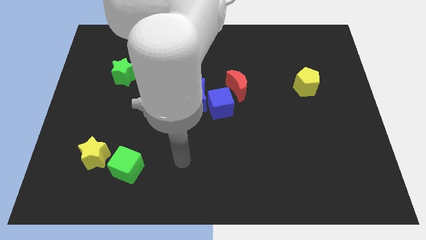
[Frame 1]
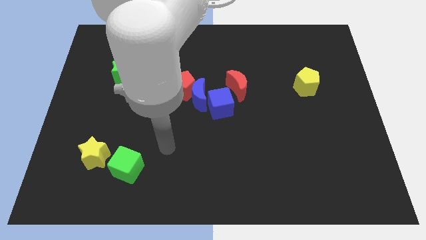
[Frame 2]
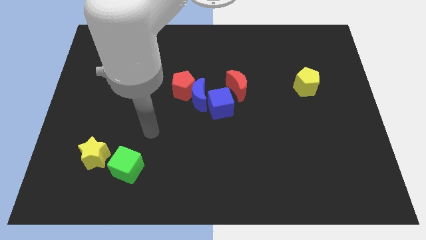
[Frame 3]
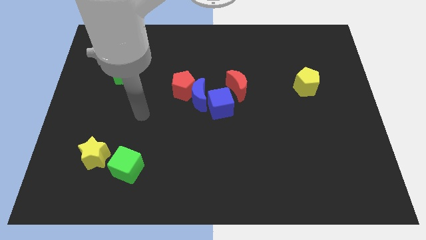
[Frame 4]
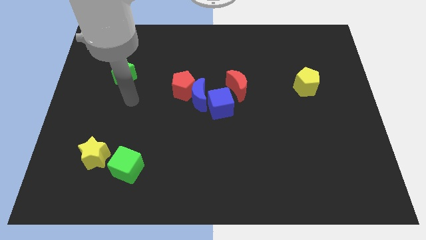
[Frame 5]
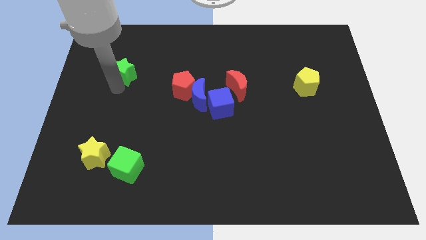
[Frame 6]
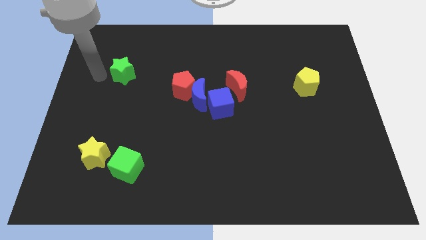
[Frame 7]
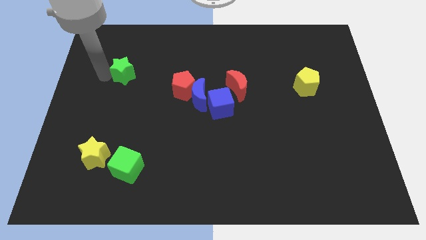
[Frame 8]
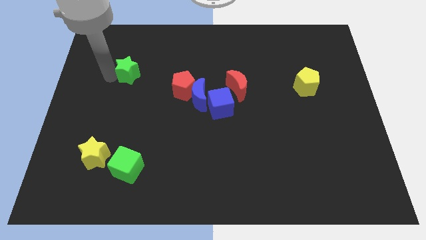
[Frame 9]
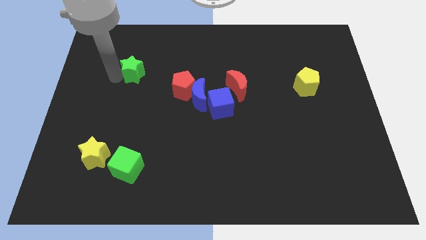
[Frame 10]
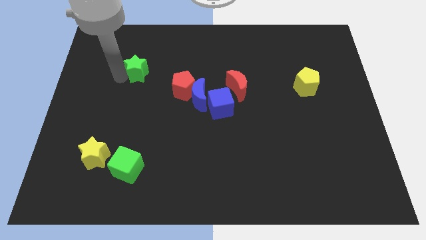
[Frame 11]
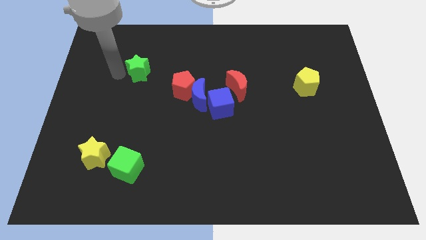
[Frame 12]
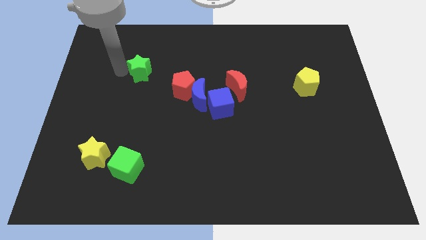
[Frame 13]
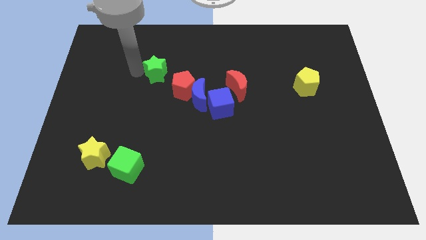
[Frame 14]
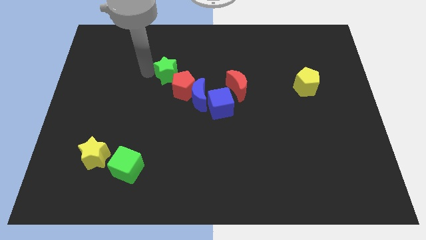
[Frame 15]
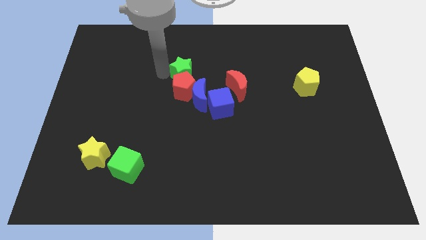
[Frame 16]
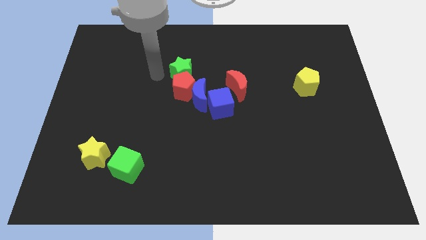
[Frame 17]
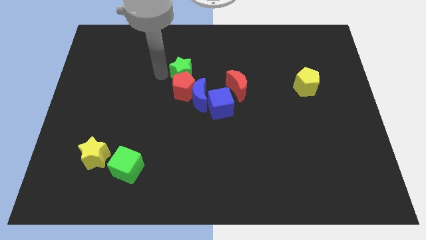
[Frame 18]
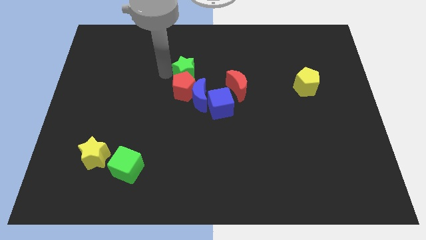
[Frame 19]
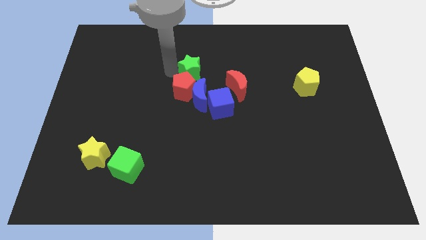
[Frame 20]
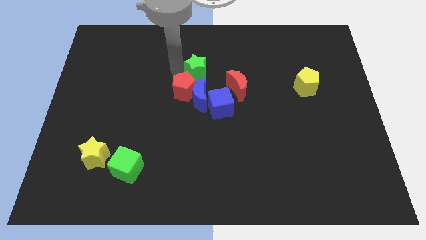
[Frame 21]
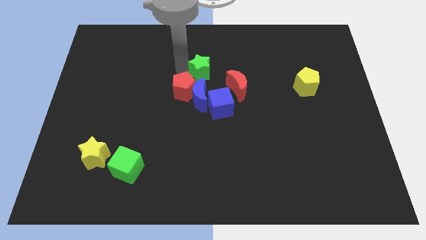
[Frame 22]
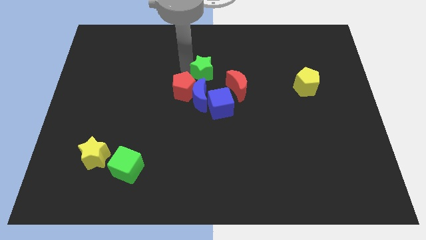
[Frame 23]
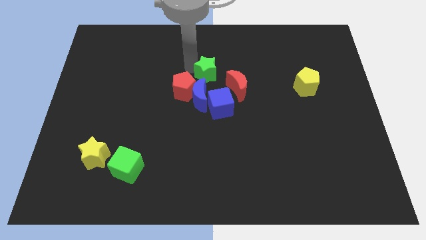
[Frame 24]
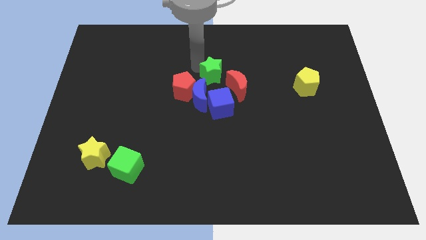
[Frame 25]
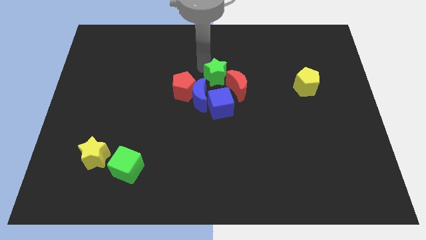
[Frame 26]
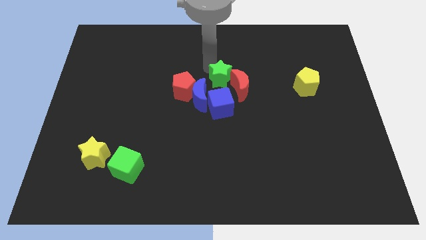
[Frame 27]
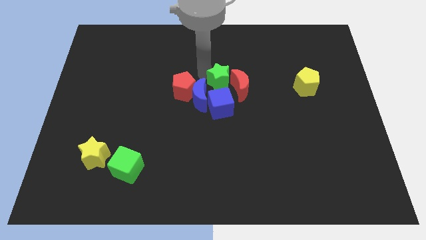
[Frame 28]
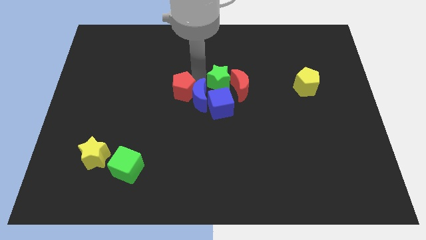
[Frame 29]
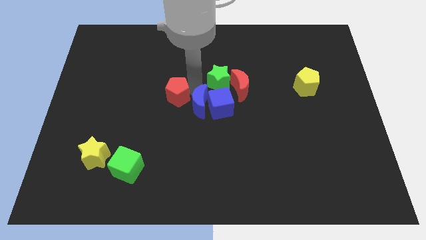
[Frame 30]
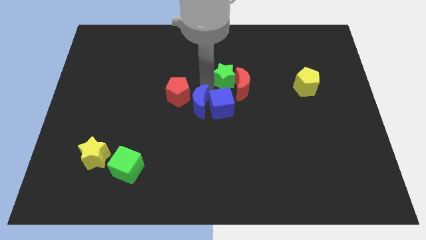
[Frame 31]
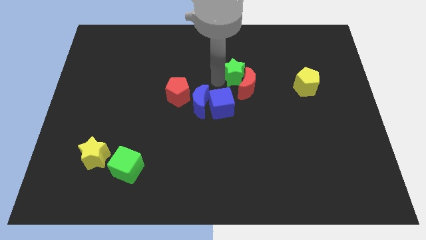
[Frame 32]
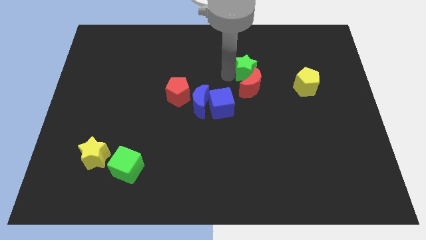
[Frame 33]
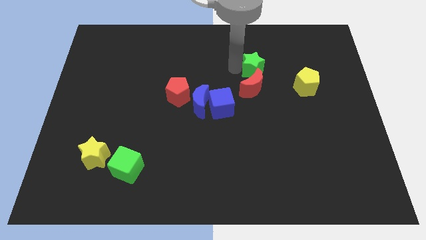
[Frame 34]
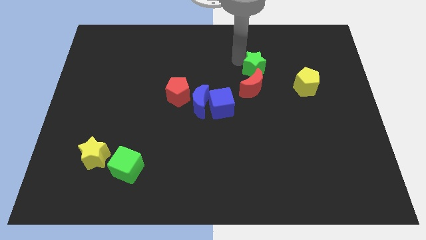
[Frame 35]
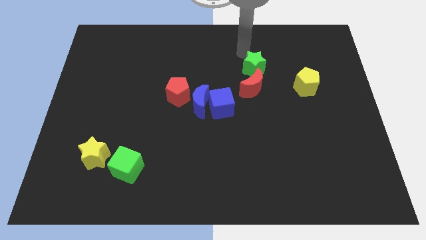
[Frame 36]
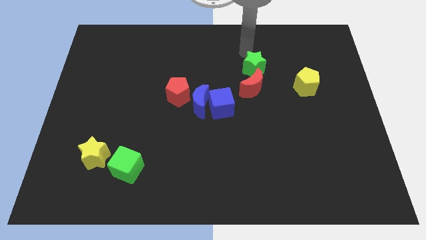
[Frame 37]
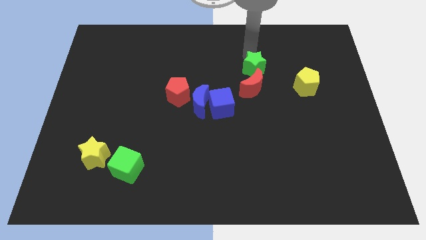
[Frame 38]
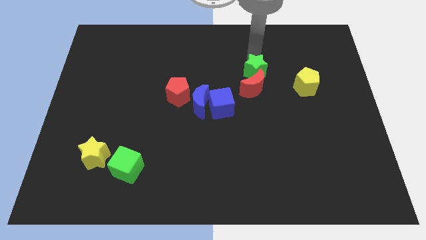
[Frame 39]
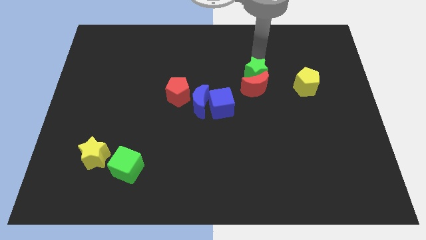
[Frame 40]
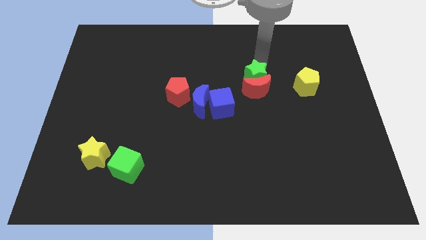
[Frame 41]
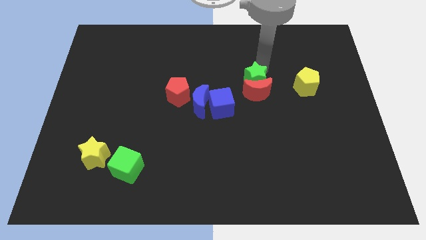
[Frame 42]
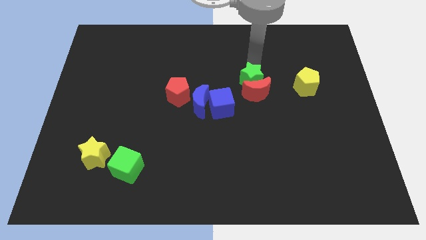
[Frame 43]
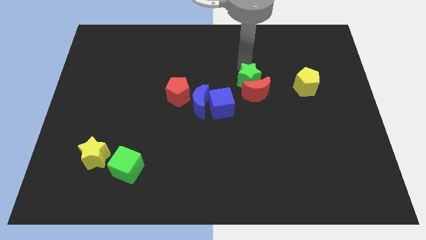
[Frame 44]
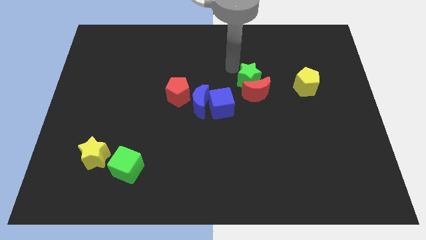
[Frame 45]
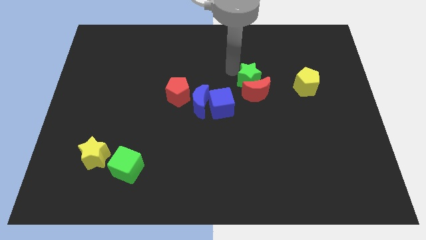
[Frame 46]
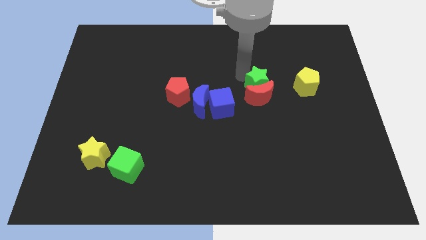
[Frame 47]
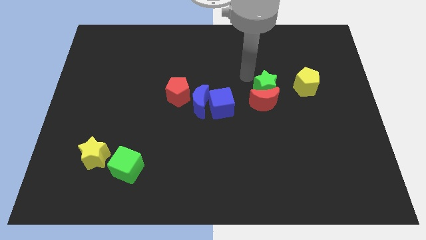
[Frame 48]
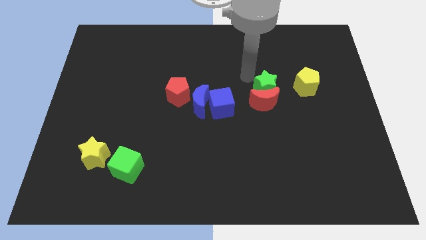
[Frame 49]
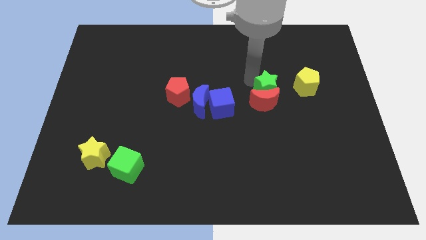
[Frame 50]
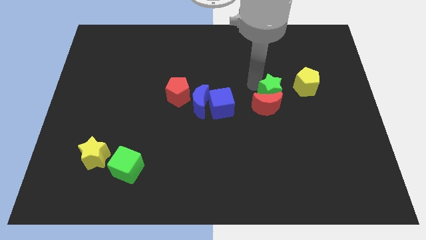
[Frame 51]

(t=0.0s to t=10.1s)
slide the green star diagonally down and to the left of the yellow pentagon

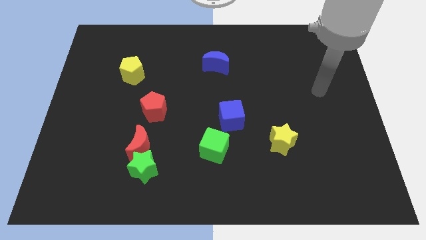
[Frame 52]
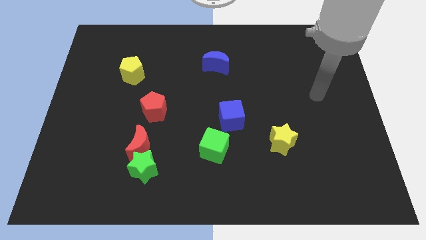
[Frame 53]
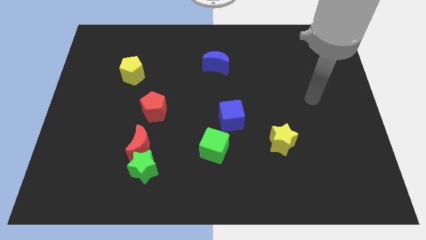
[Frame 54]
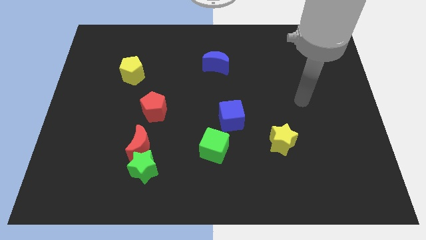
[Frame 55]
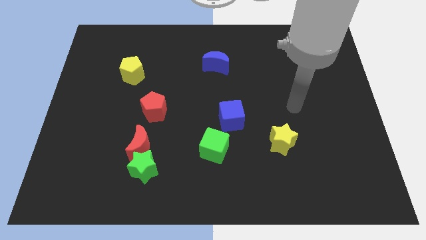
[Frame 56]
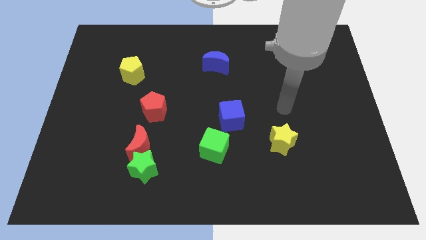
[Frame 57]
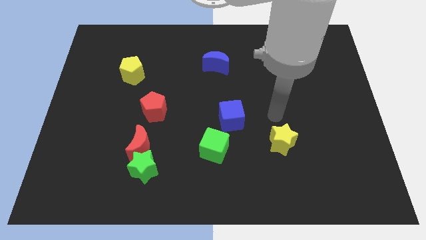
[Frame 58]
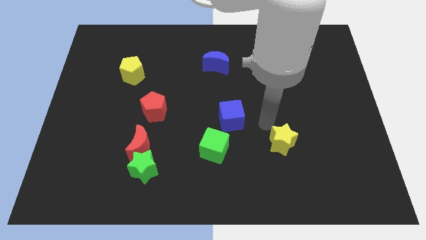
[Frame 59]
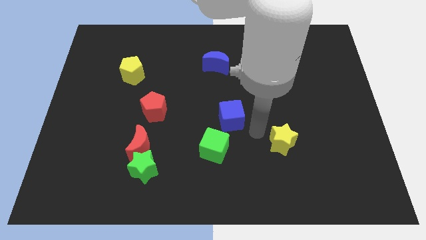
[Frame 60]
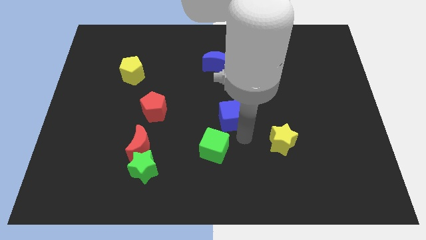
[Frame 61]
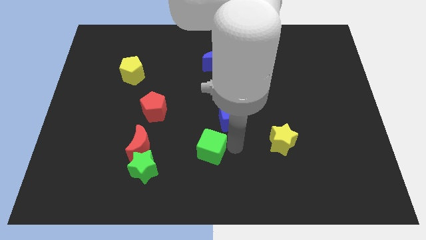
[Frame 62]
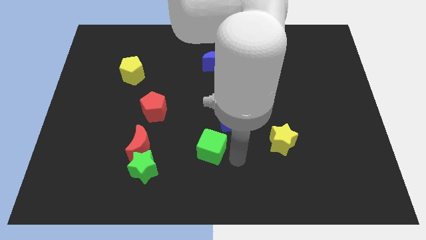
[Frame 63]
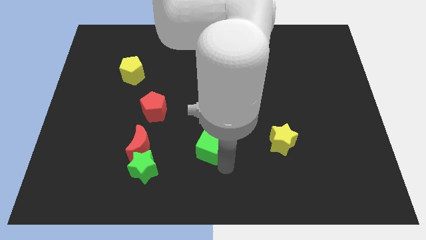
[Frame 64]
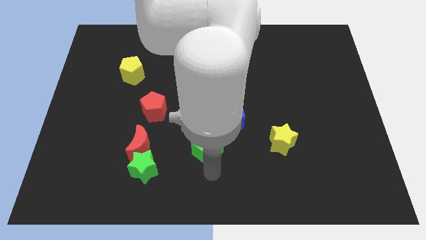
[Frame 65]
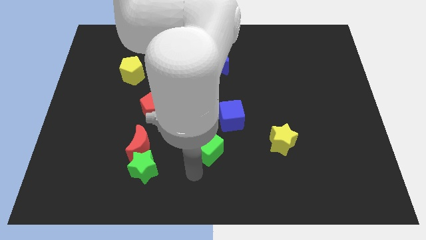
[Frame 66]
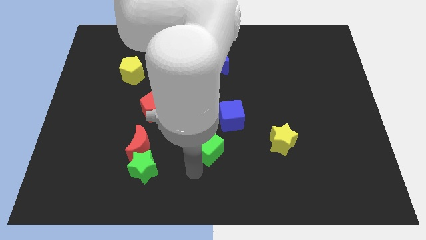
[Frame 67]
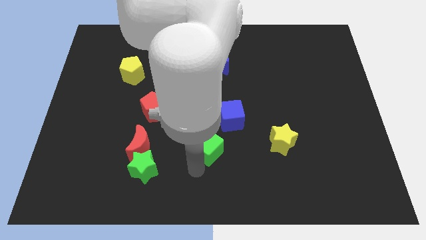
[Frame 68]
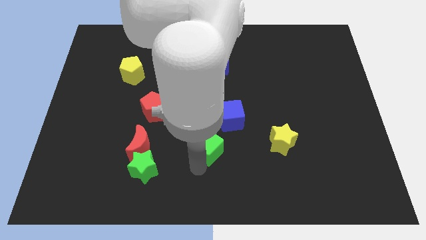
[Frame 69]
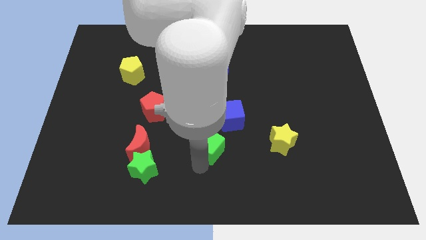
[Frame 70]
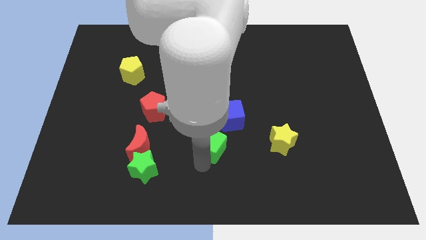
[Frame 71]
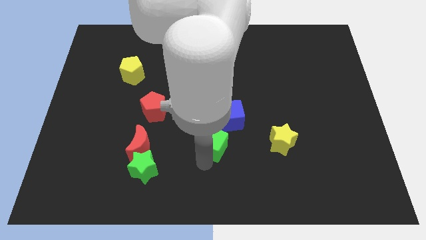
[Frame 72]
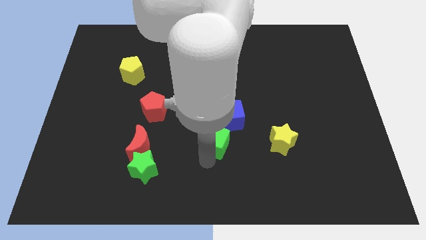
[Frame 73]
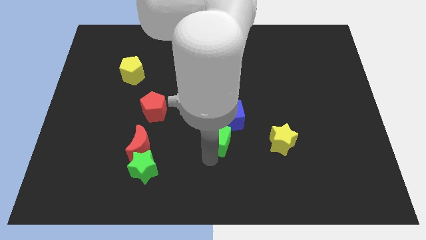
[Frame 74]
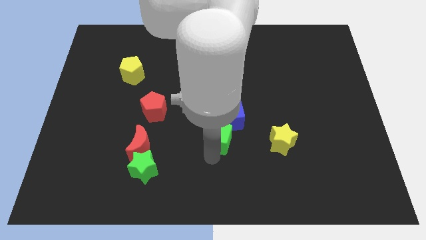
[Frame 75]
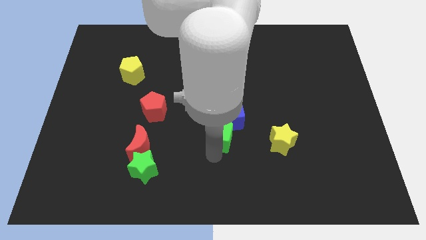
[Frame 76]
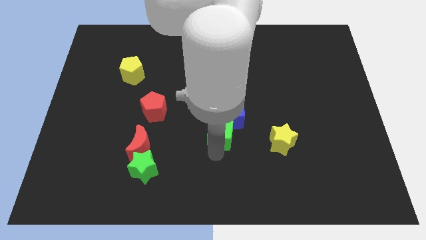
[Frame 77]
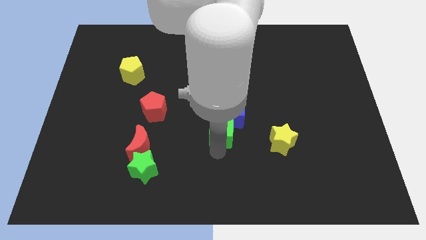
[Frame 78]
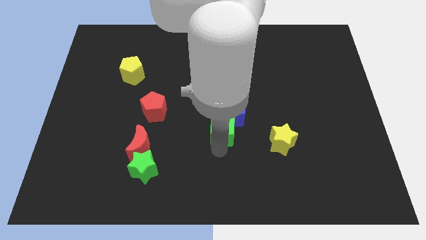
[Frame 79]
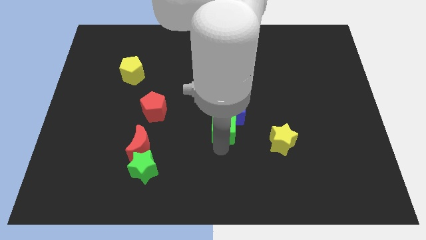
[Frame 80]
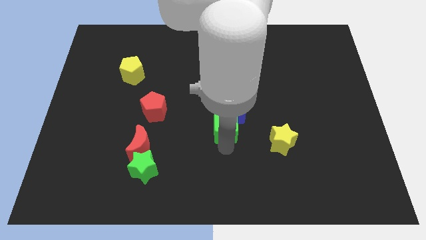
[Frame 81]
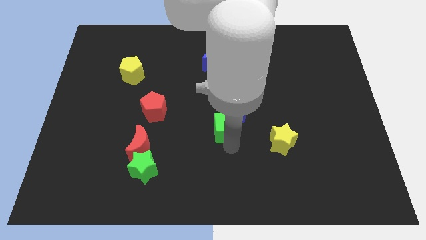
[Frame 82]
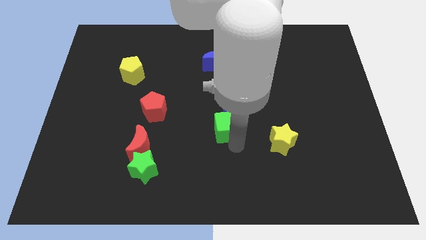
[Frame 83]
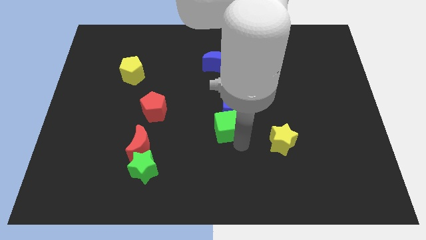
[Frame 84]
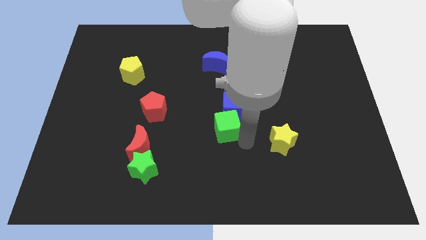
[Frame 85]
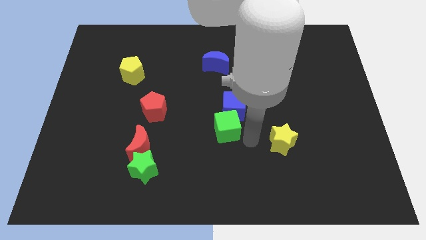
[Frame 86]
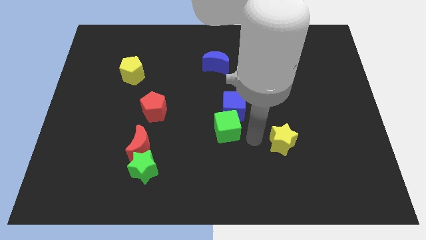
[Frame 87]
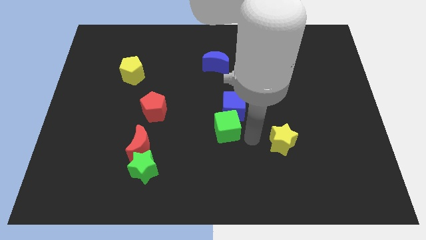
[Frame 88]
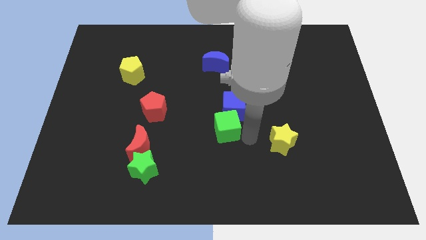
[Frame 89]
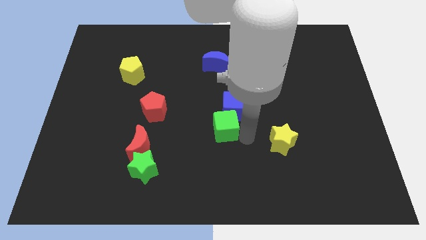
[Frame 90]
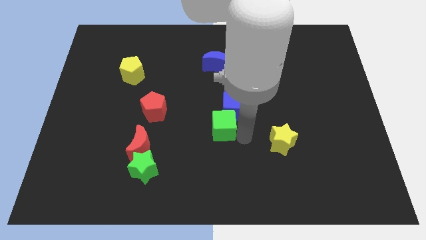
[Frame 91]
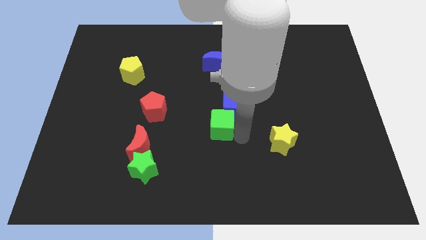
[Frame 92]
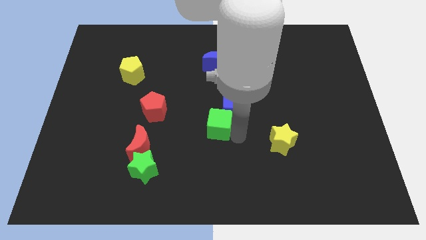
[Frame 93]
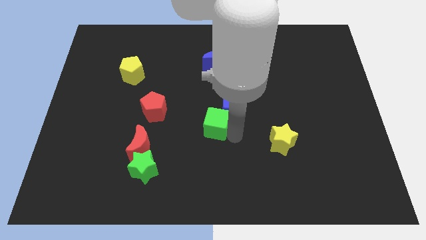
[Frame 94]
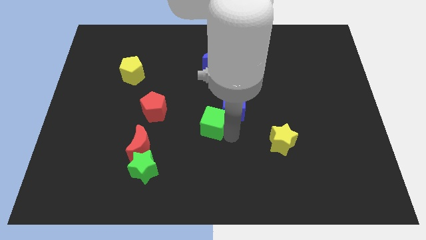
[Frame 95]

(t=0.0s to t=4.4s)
put the green cube to the right of the red pentagon
